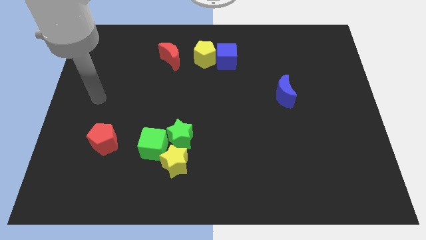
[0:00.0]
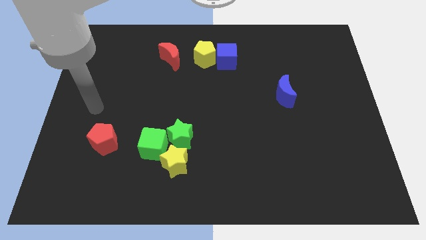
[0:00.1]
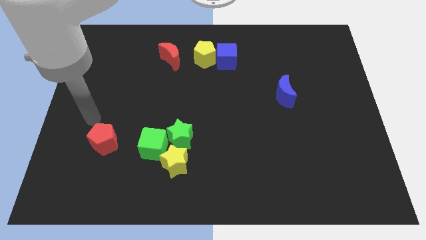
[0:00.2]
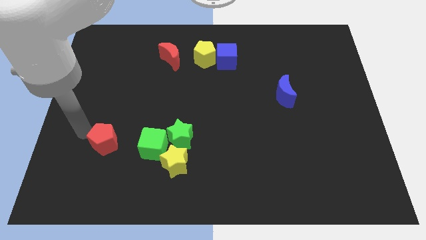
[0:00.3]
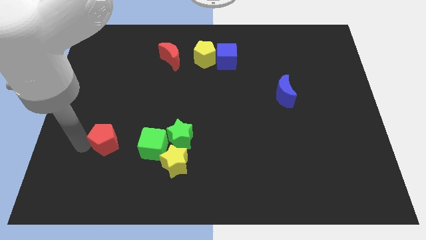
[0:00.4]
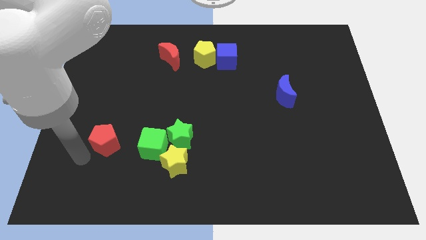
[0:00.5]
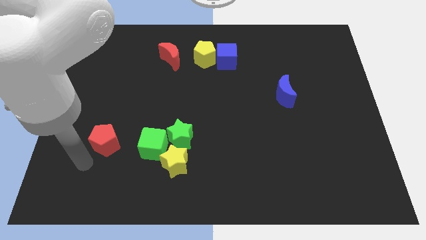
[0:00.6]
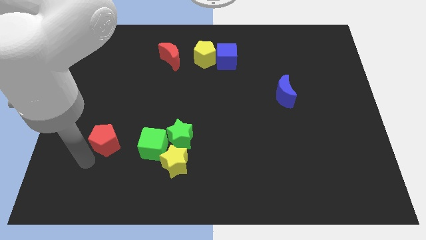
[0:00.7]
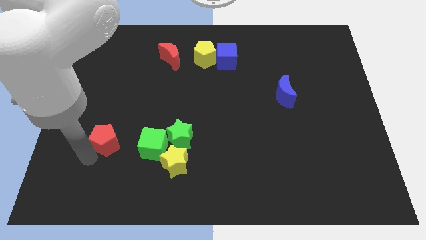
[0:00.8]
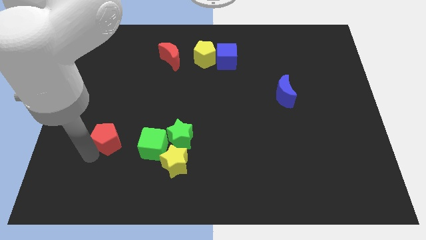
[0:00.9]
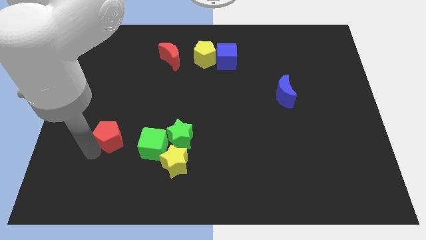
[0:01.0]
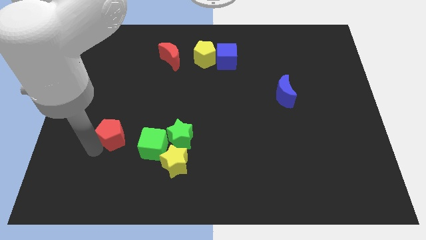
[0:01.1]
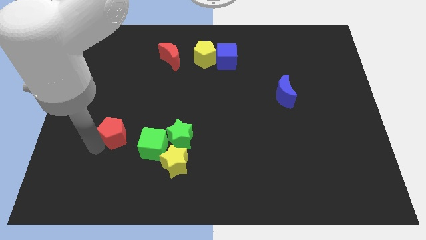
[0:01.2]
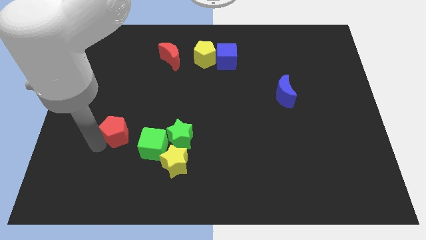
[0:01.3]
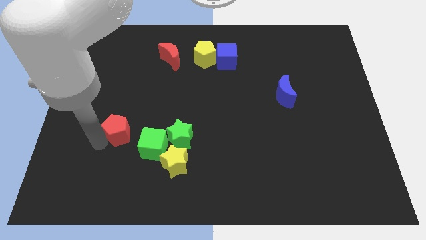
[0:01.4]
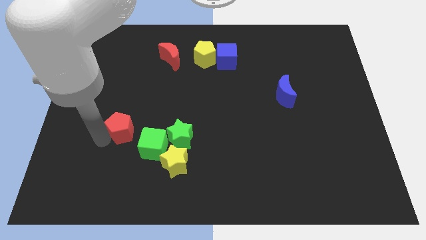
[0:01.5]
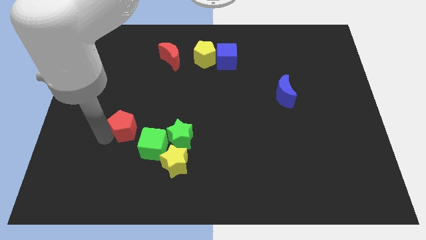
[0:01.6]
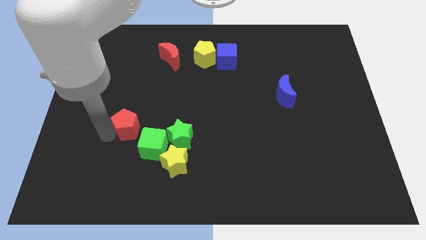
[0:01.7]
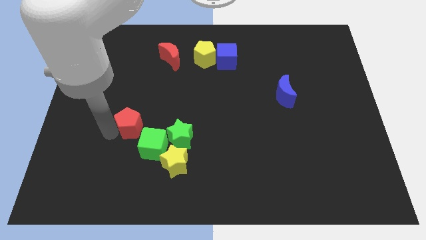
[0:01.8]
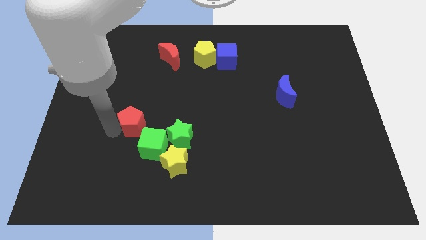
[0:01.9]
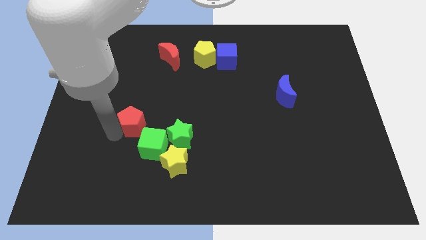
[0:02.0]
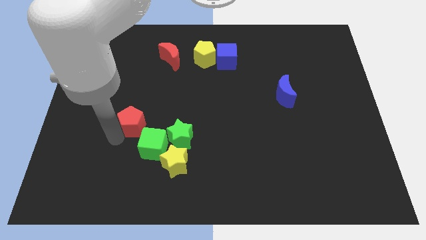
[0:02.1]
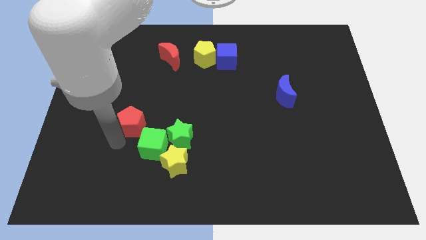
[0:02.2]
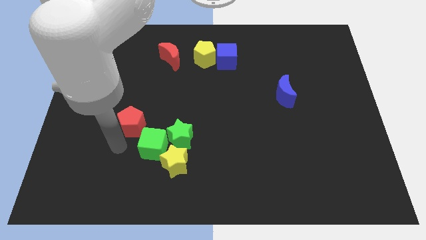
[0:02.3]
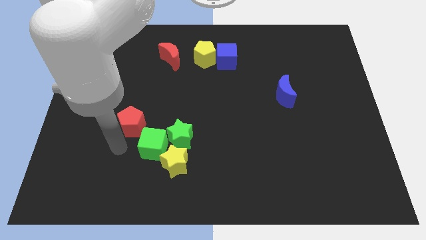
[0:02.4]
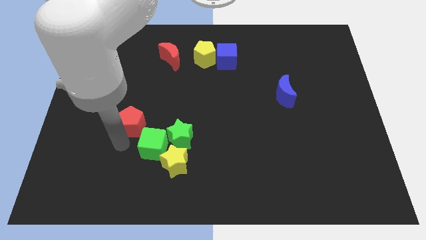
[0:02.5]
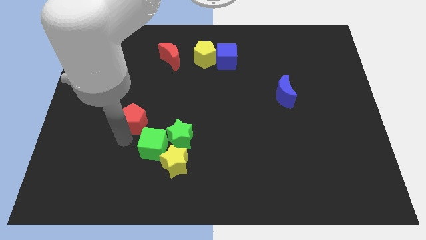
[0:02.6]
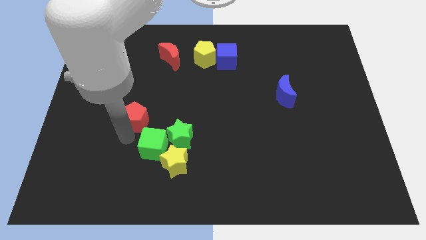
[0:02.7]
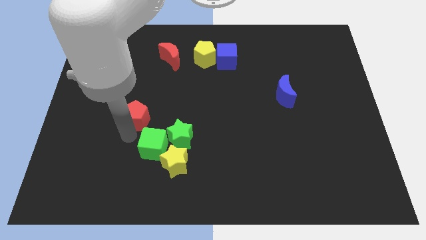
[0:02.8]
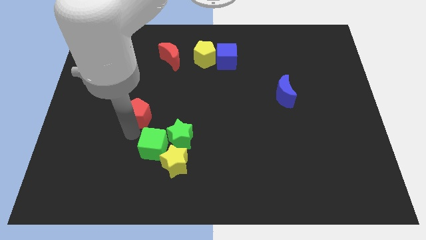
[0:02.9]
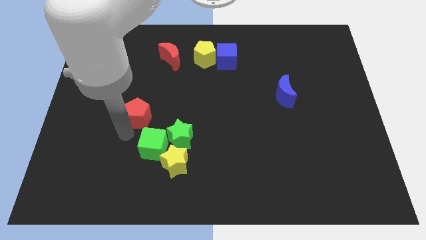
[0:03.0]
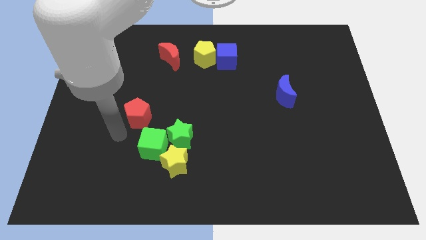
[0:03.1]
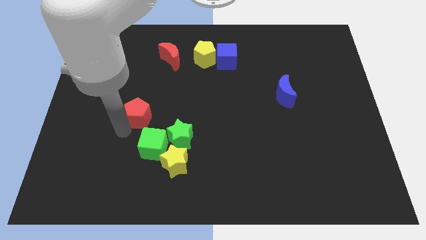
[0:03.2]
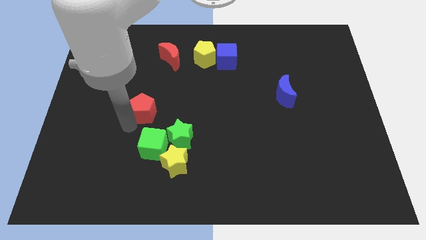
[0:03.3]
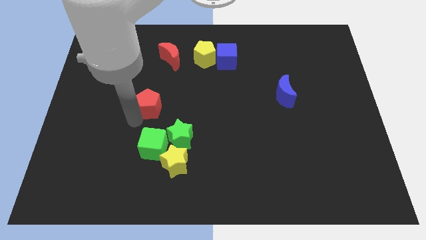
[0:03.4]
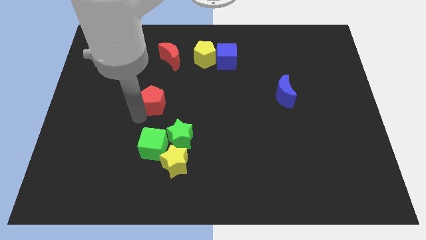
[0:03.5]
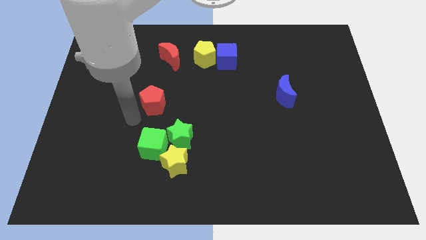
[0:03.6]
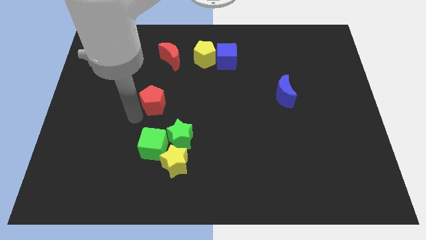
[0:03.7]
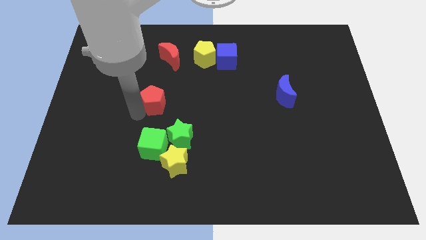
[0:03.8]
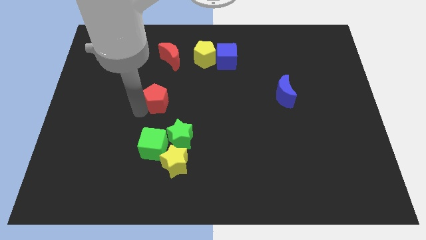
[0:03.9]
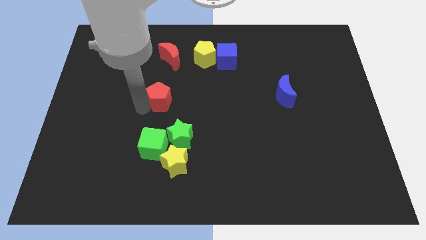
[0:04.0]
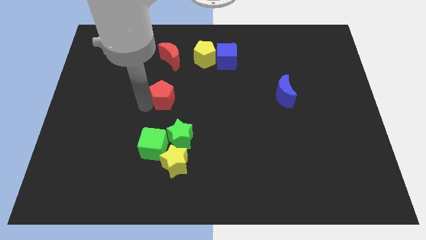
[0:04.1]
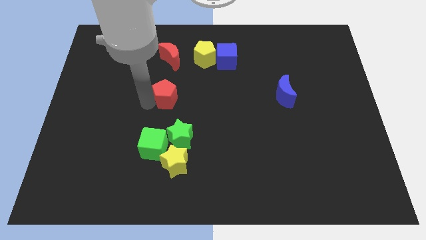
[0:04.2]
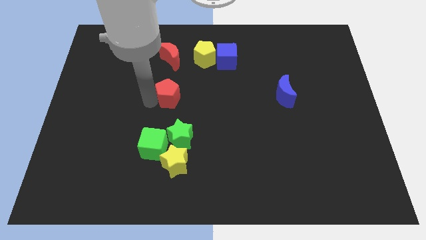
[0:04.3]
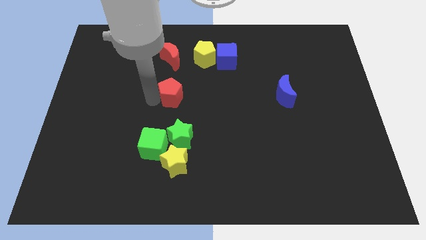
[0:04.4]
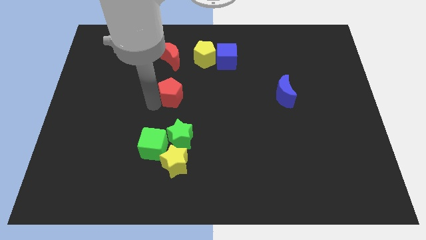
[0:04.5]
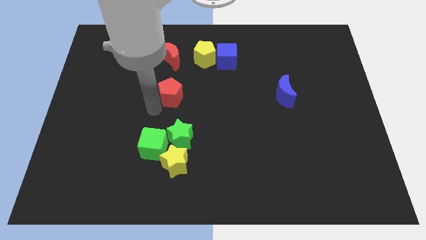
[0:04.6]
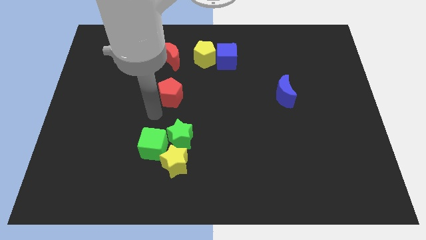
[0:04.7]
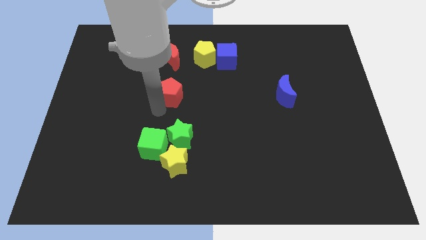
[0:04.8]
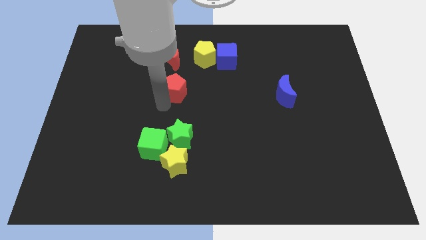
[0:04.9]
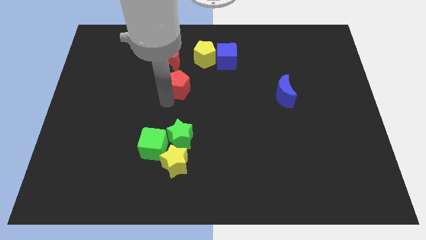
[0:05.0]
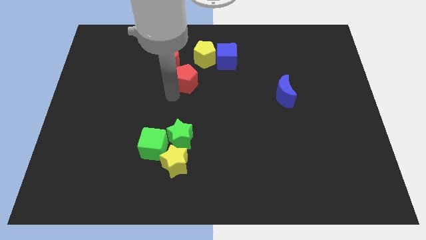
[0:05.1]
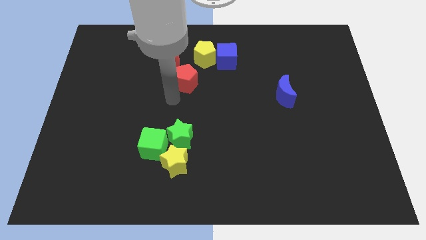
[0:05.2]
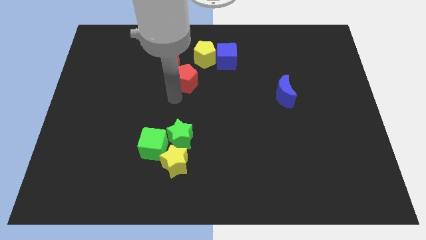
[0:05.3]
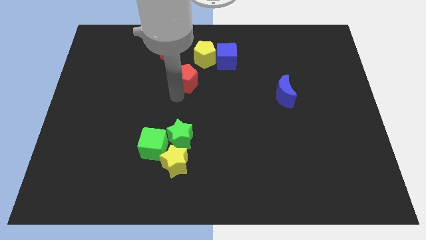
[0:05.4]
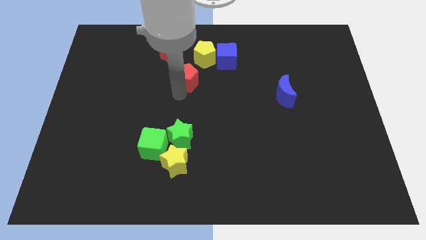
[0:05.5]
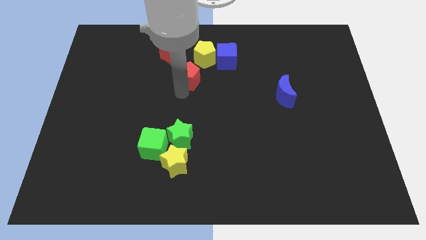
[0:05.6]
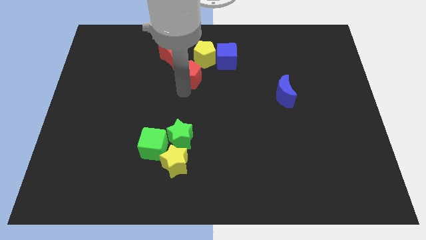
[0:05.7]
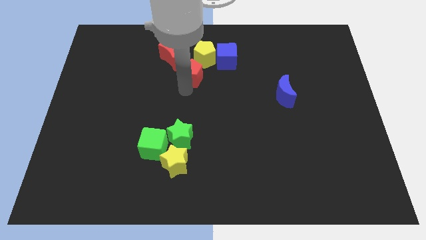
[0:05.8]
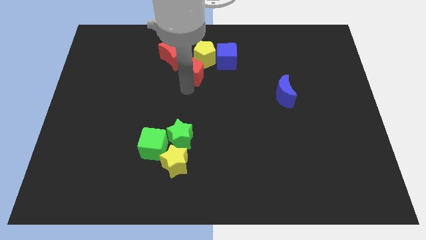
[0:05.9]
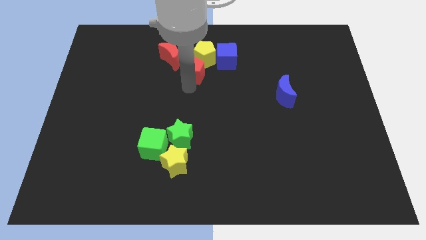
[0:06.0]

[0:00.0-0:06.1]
slide the red pentagon towards the yellow pentagon

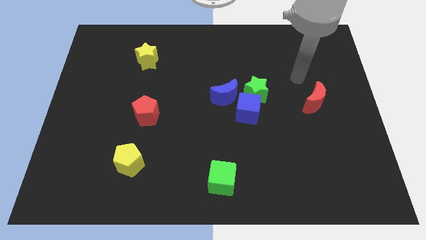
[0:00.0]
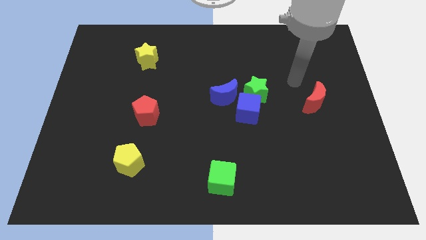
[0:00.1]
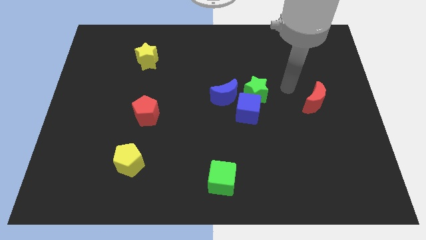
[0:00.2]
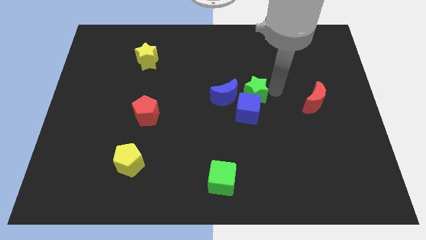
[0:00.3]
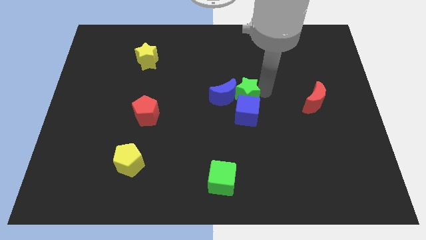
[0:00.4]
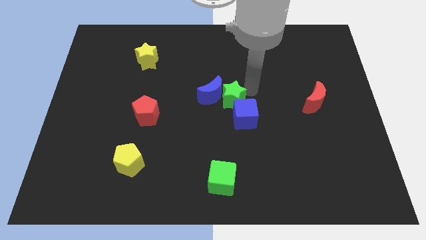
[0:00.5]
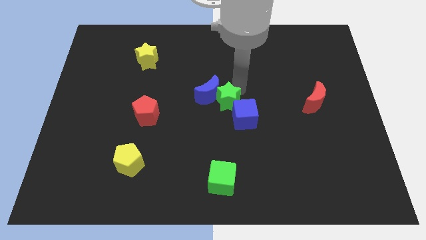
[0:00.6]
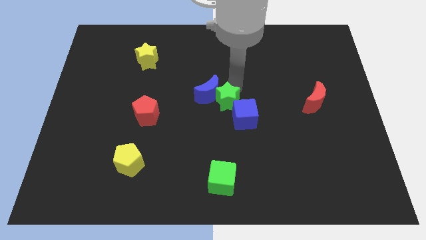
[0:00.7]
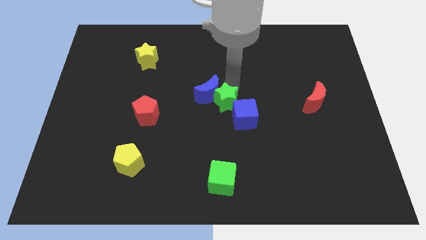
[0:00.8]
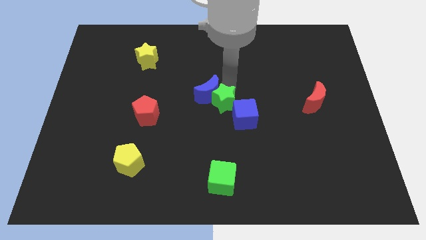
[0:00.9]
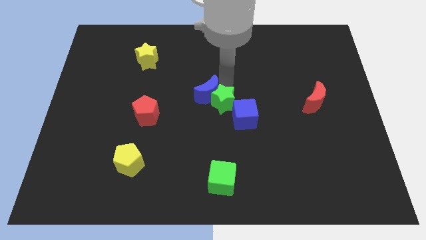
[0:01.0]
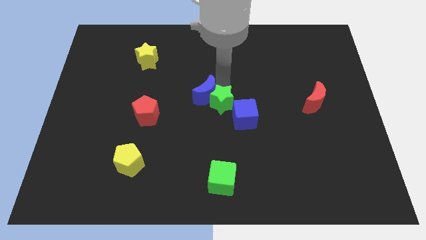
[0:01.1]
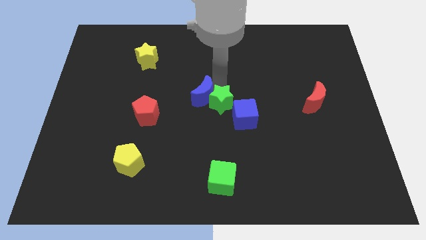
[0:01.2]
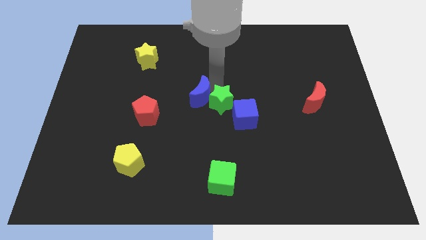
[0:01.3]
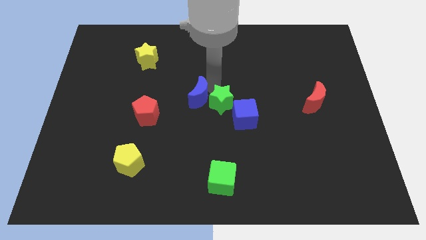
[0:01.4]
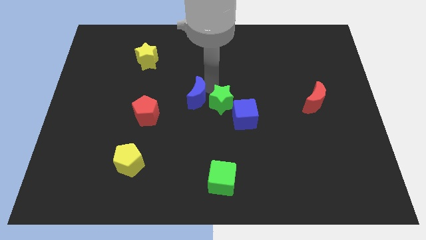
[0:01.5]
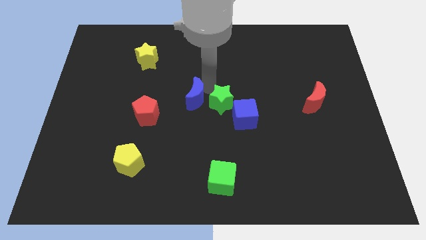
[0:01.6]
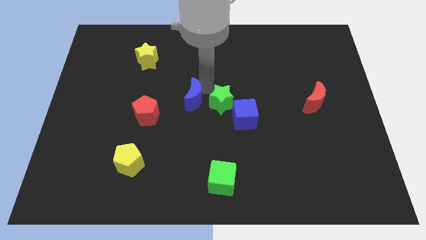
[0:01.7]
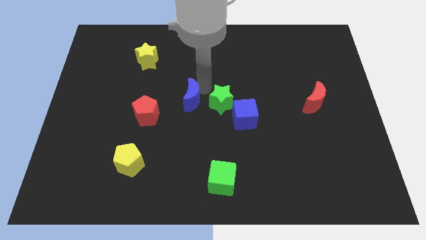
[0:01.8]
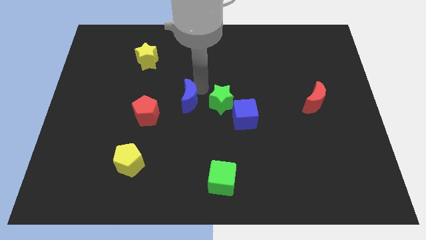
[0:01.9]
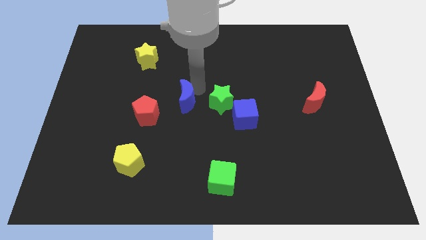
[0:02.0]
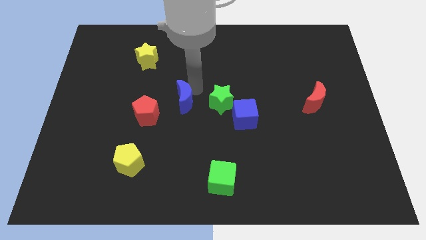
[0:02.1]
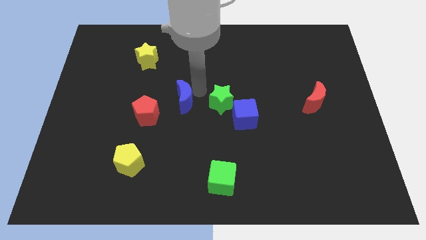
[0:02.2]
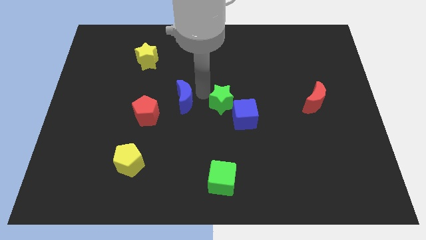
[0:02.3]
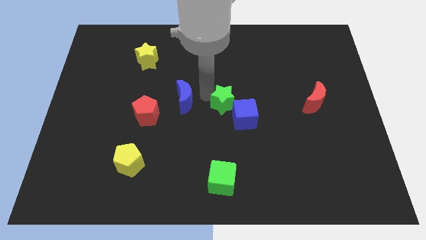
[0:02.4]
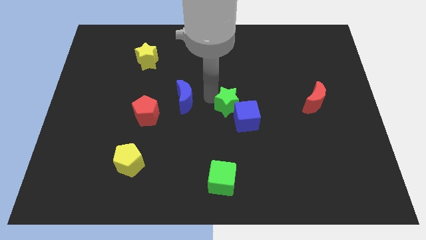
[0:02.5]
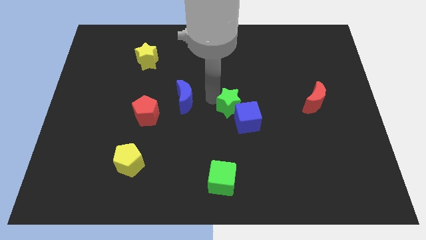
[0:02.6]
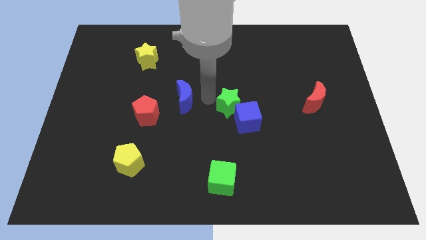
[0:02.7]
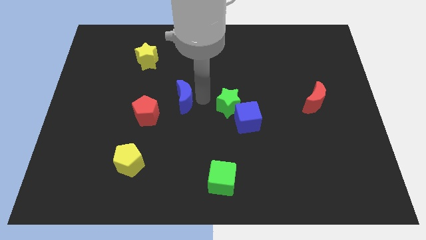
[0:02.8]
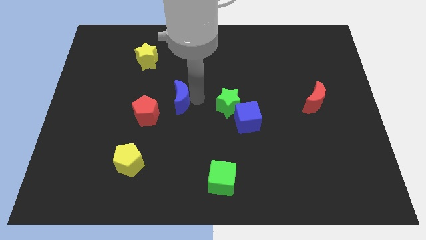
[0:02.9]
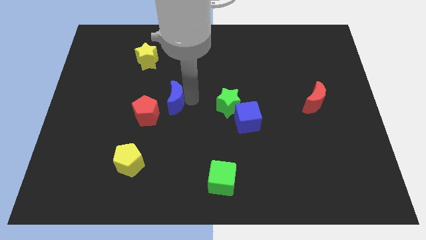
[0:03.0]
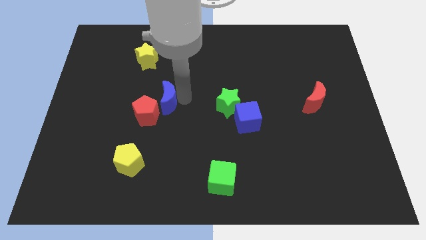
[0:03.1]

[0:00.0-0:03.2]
put the blue moon towards the red pentagon
